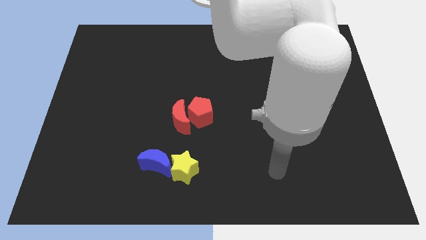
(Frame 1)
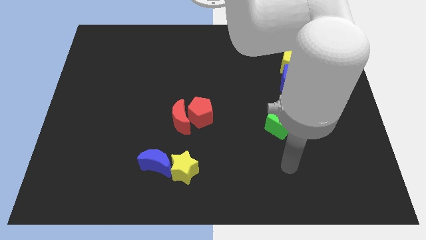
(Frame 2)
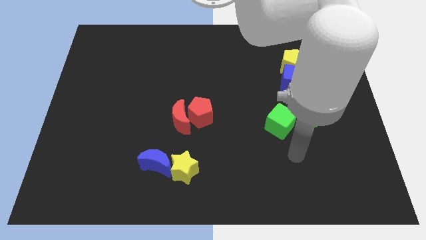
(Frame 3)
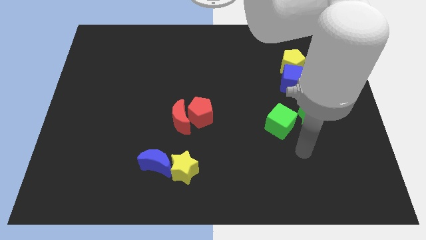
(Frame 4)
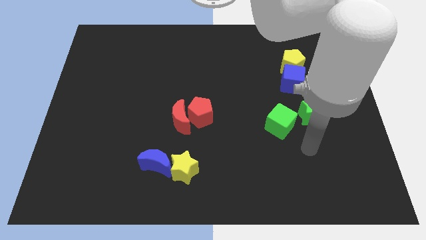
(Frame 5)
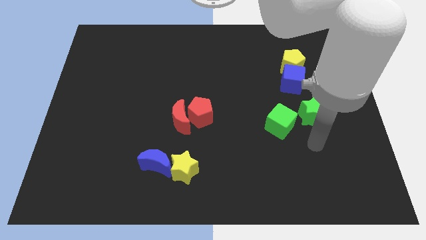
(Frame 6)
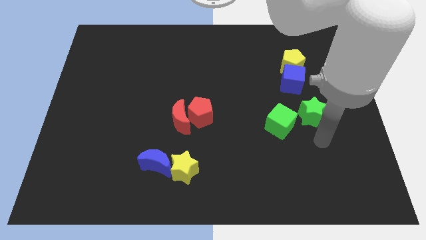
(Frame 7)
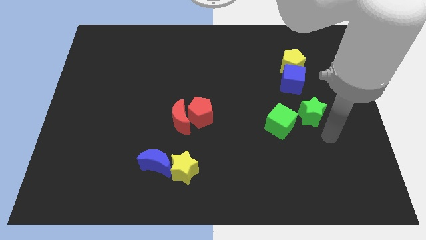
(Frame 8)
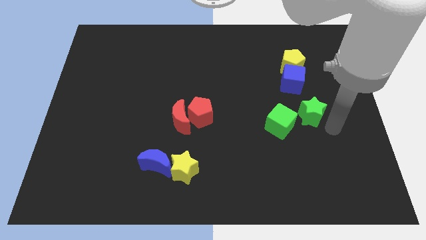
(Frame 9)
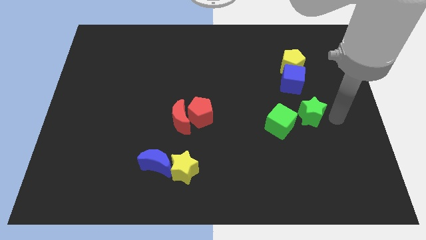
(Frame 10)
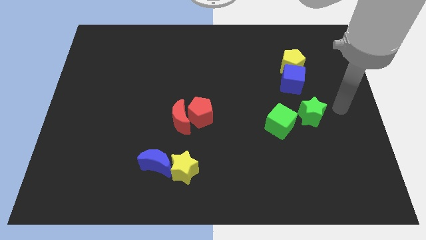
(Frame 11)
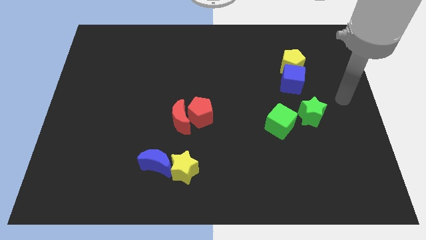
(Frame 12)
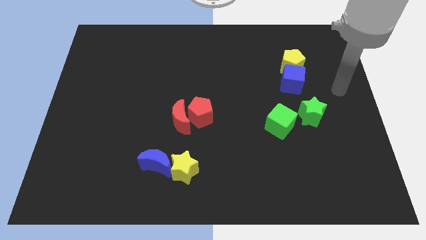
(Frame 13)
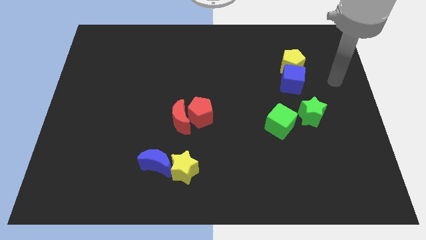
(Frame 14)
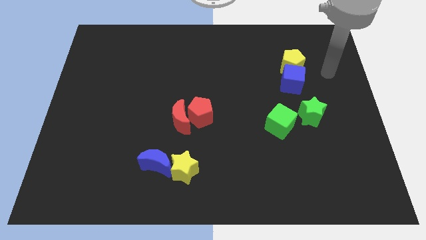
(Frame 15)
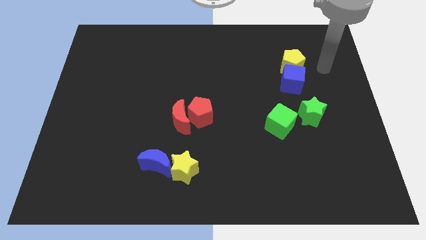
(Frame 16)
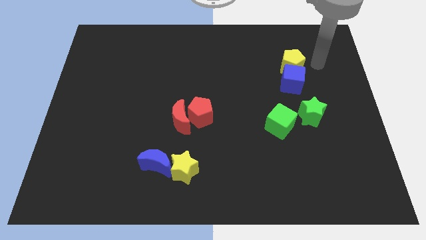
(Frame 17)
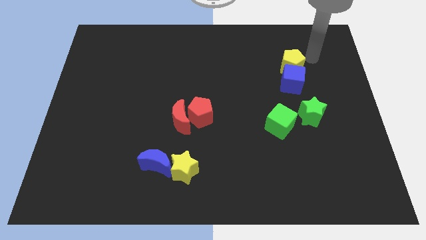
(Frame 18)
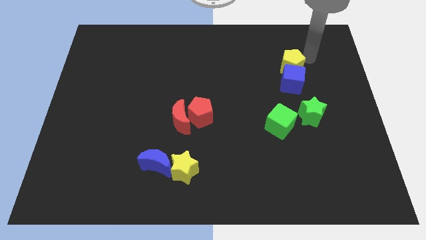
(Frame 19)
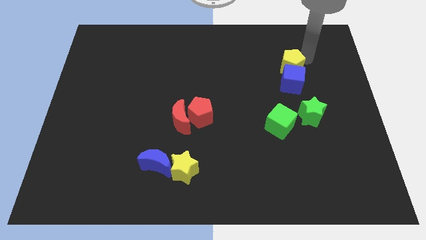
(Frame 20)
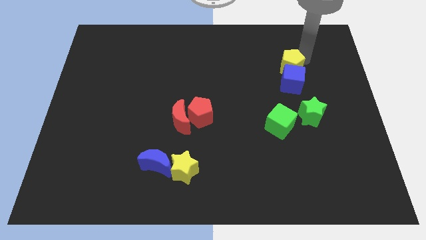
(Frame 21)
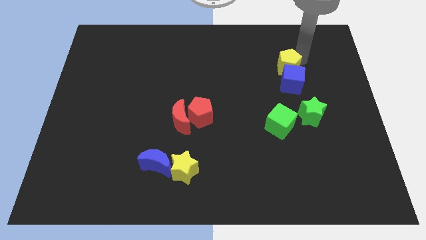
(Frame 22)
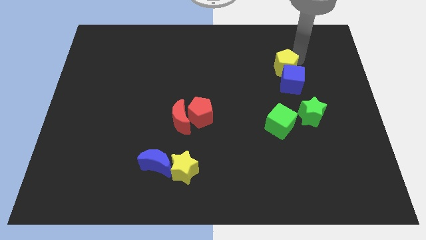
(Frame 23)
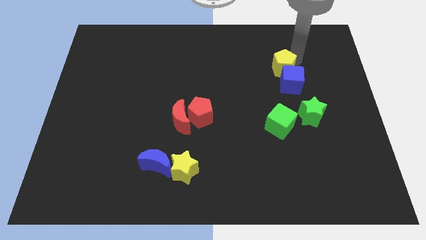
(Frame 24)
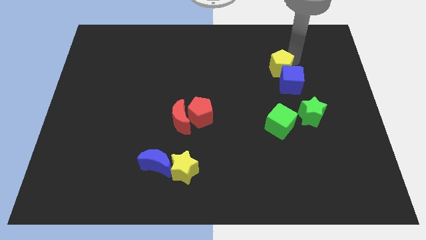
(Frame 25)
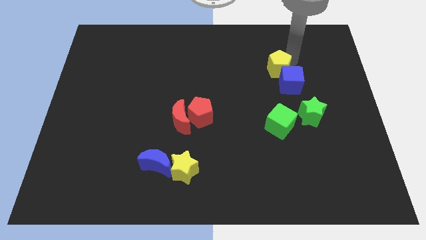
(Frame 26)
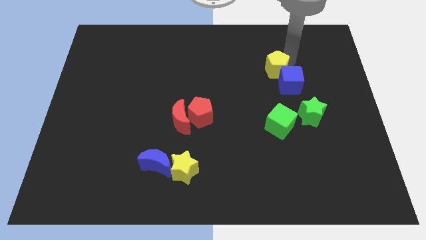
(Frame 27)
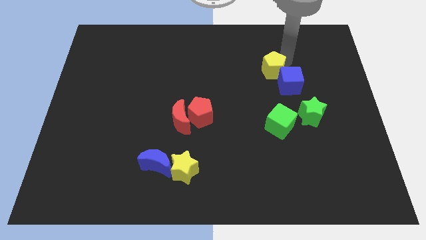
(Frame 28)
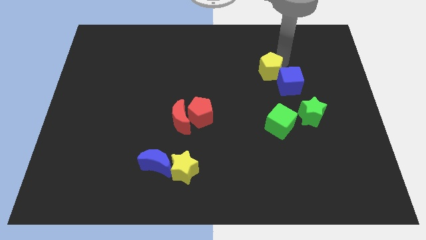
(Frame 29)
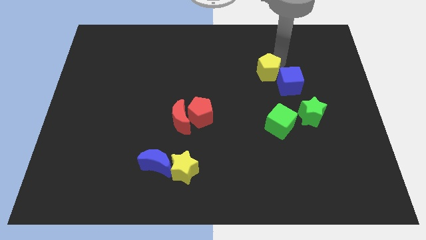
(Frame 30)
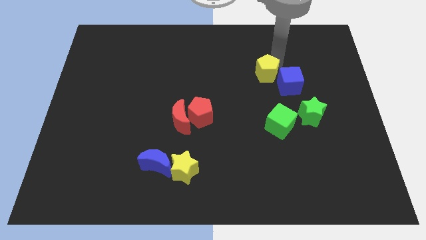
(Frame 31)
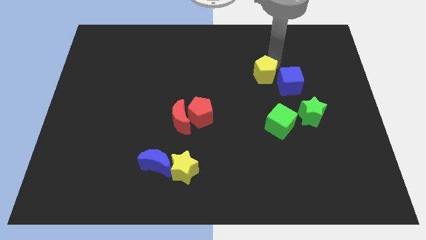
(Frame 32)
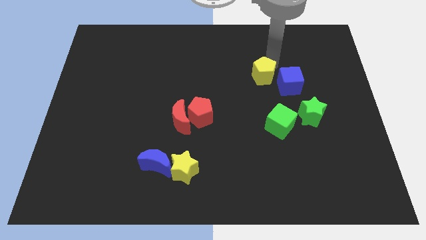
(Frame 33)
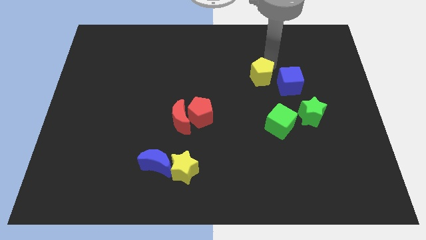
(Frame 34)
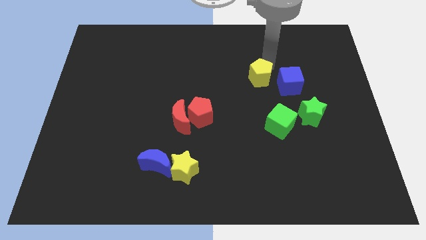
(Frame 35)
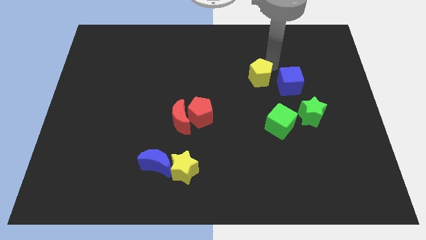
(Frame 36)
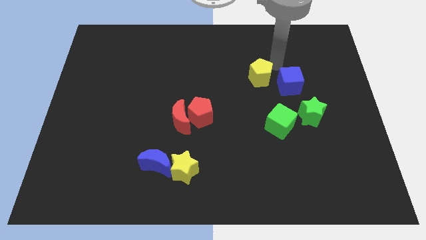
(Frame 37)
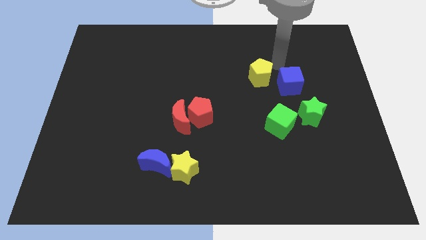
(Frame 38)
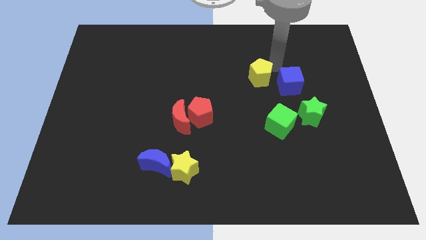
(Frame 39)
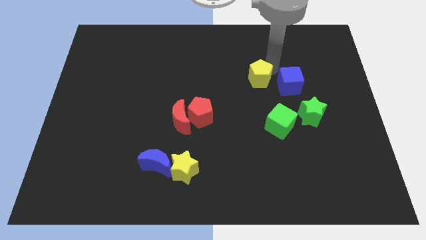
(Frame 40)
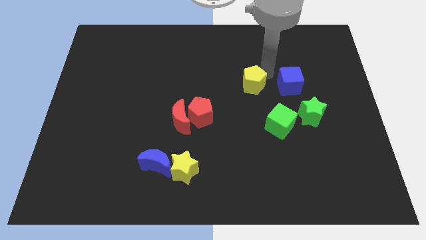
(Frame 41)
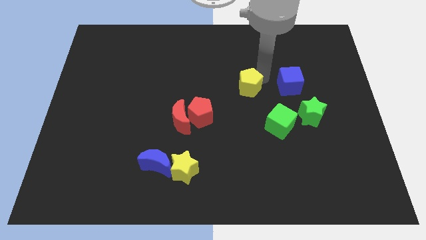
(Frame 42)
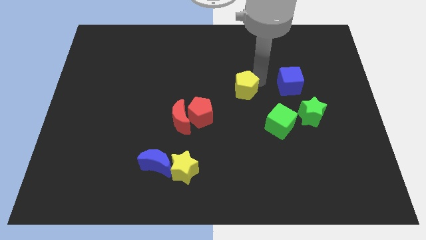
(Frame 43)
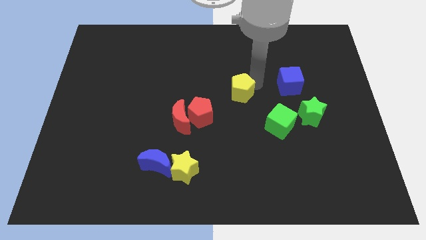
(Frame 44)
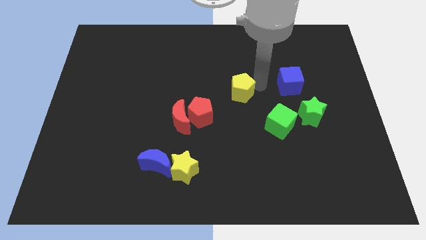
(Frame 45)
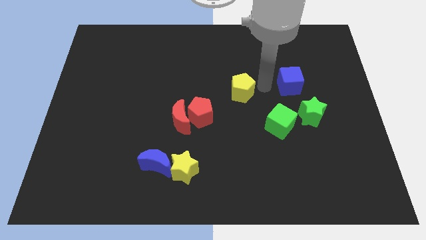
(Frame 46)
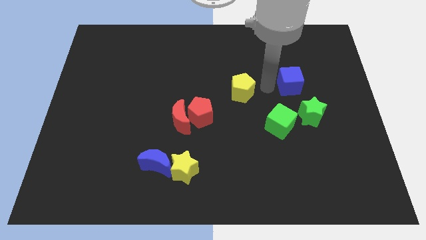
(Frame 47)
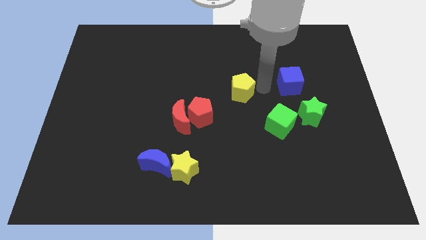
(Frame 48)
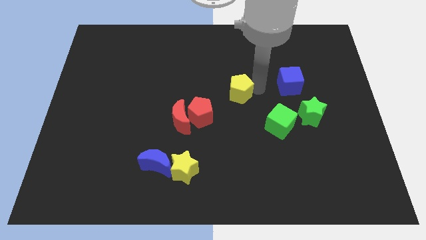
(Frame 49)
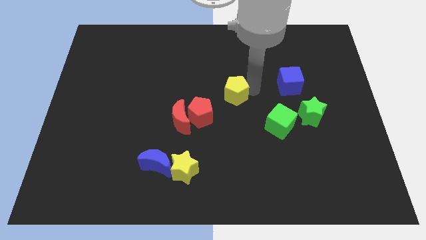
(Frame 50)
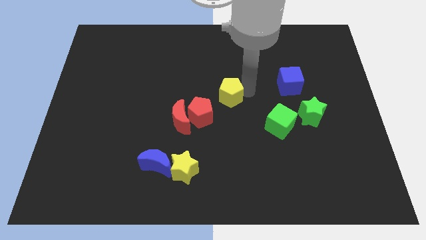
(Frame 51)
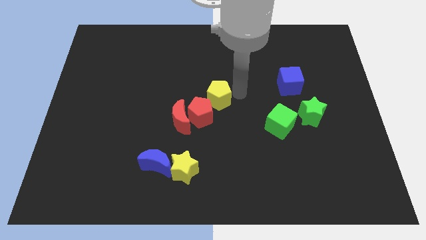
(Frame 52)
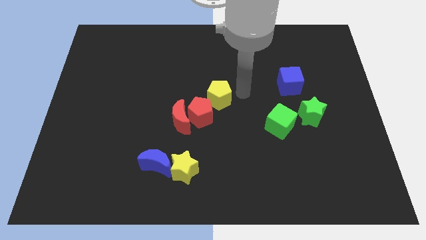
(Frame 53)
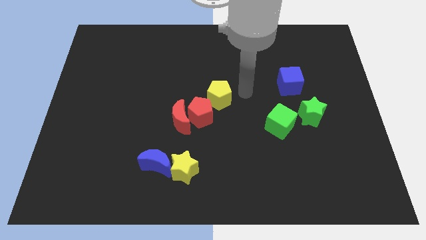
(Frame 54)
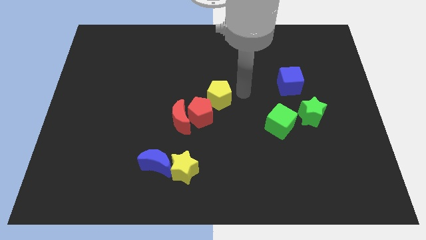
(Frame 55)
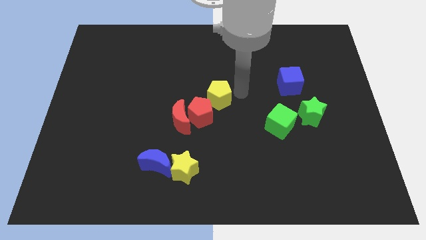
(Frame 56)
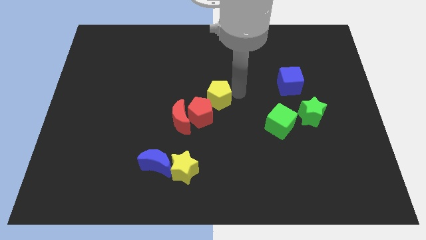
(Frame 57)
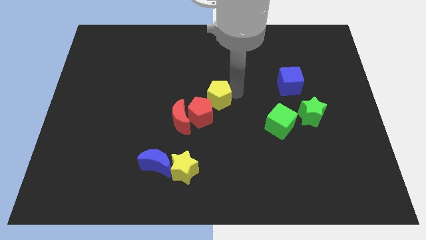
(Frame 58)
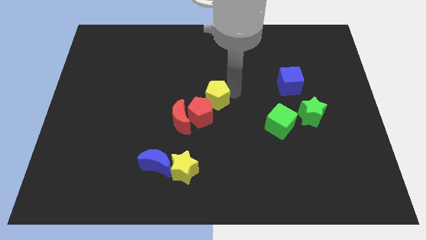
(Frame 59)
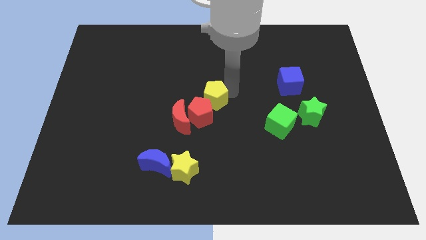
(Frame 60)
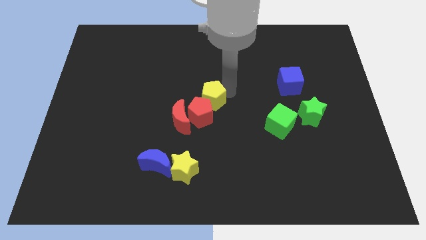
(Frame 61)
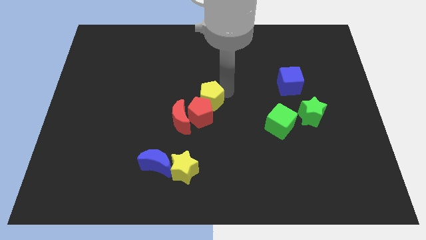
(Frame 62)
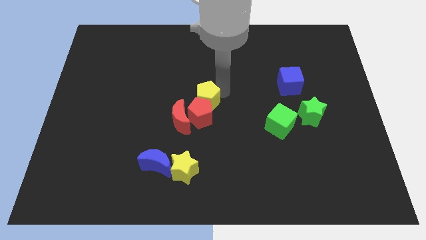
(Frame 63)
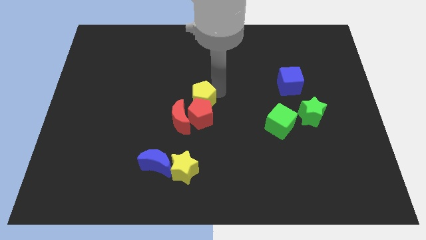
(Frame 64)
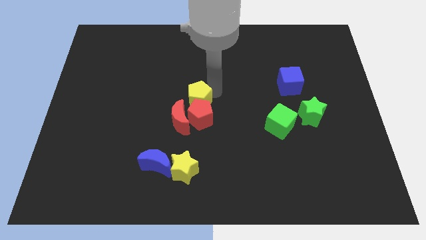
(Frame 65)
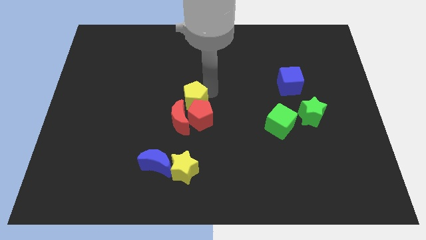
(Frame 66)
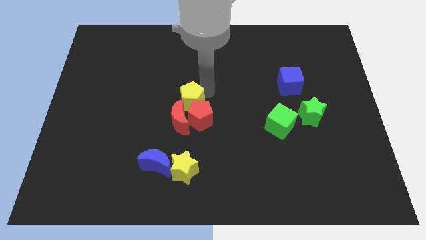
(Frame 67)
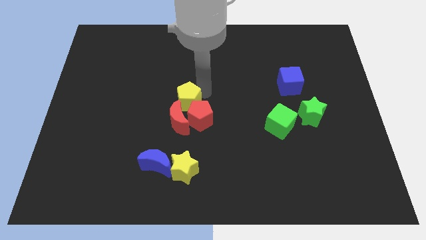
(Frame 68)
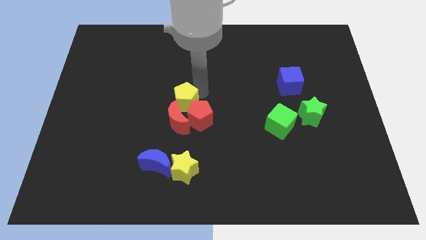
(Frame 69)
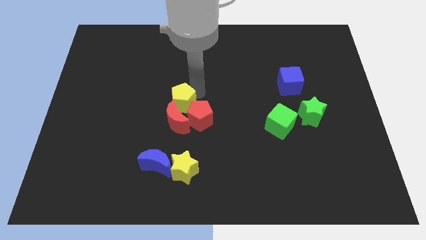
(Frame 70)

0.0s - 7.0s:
move the yellow pentagon towards the red moon
